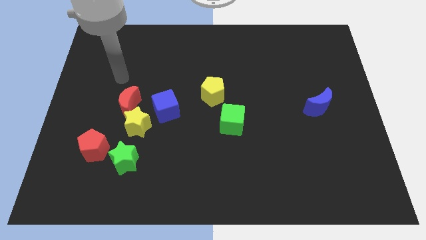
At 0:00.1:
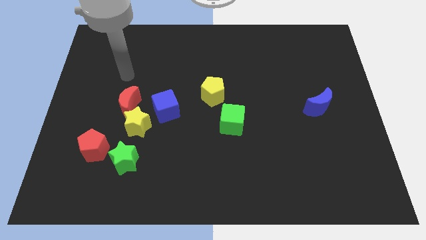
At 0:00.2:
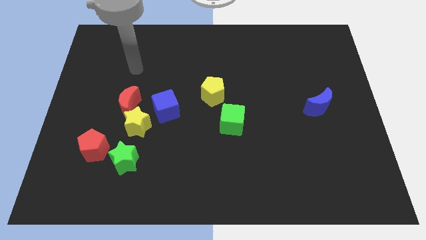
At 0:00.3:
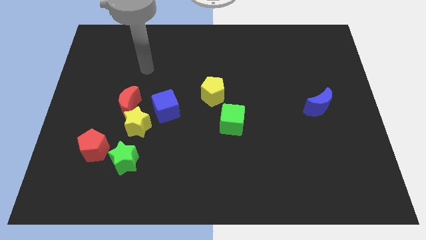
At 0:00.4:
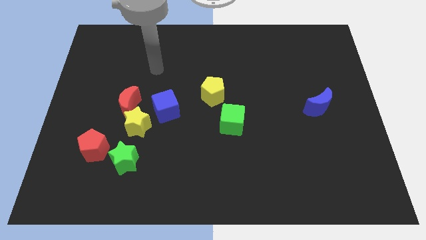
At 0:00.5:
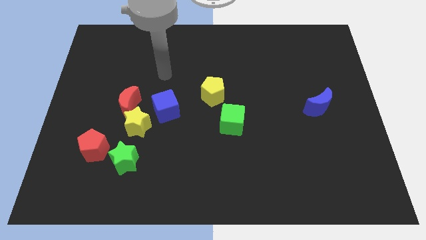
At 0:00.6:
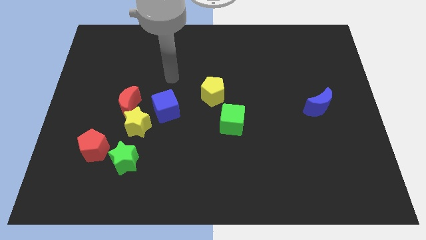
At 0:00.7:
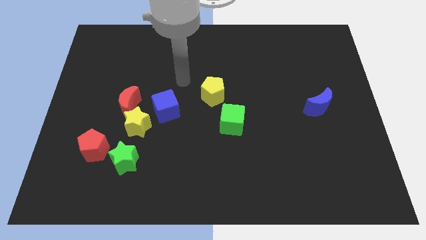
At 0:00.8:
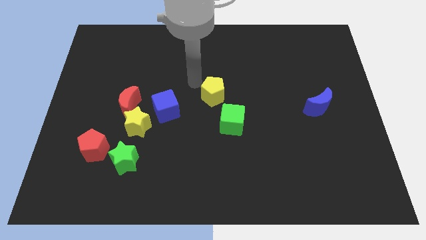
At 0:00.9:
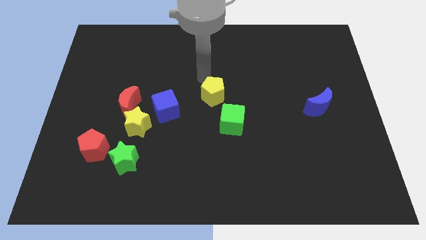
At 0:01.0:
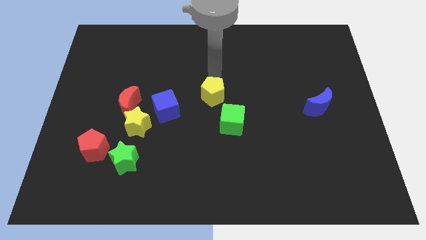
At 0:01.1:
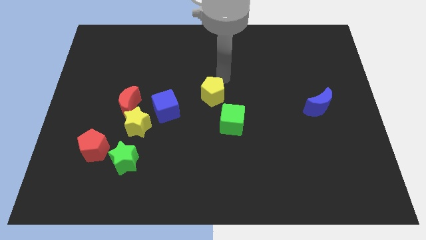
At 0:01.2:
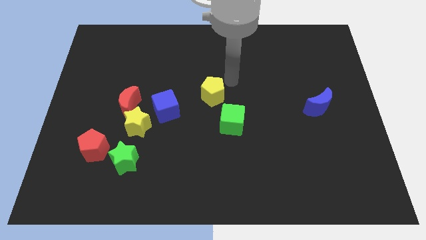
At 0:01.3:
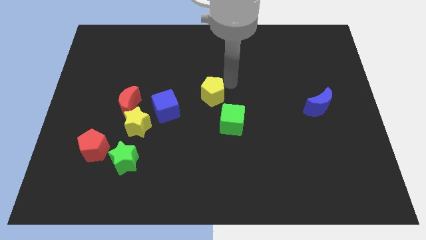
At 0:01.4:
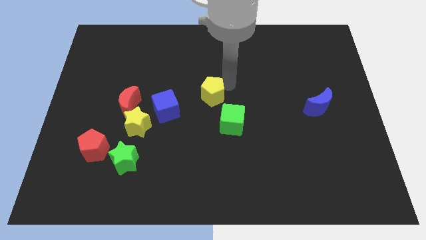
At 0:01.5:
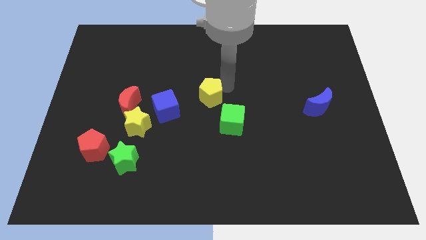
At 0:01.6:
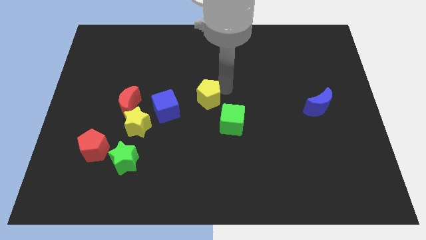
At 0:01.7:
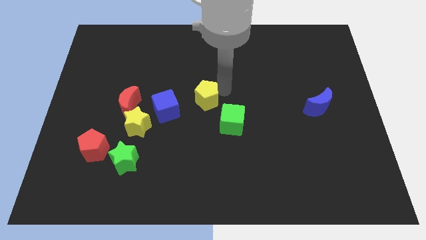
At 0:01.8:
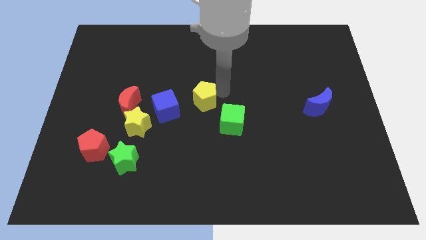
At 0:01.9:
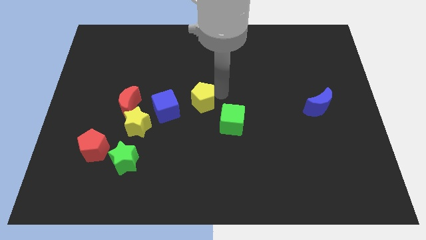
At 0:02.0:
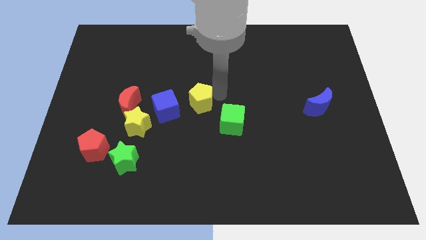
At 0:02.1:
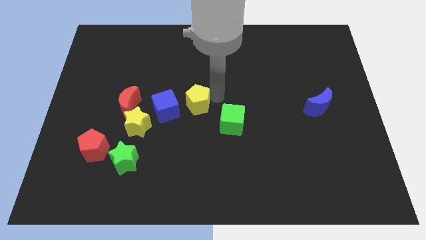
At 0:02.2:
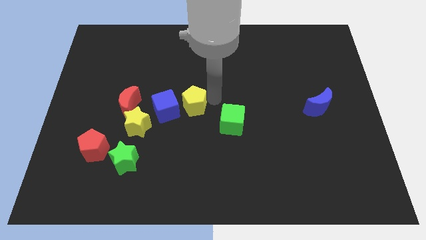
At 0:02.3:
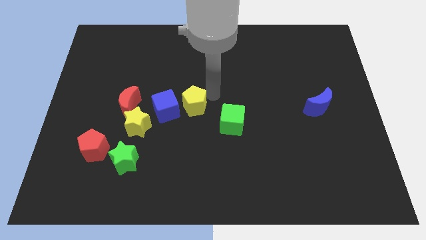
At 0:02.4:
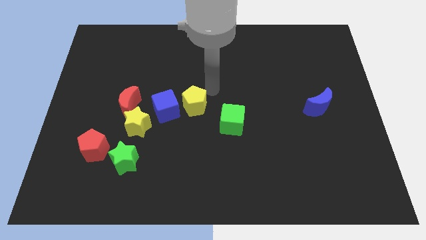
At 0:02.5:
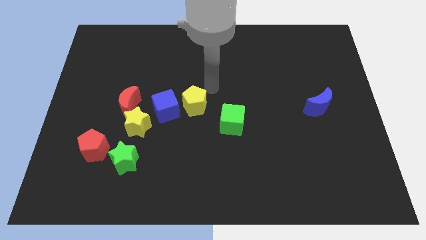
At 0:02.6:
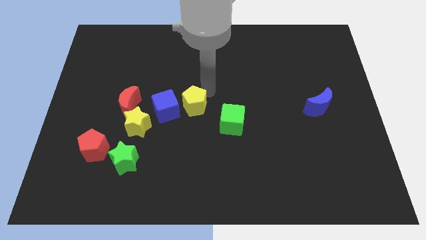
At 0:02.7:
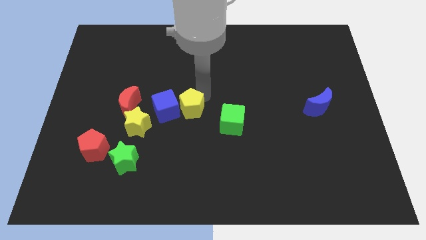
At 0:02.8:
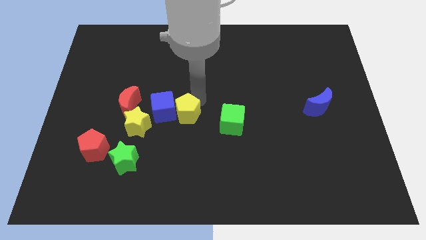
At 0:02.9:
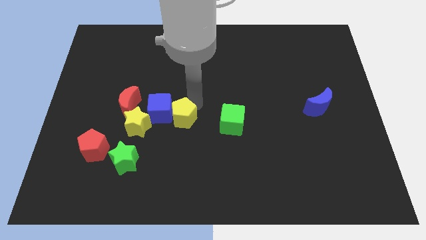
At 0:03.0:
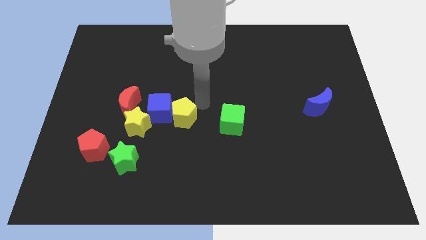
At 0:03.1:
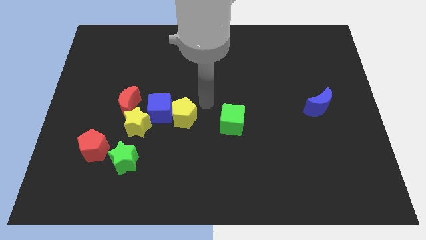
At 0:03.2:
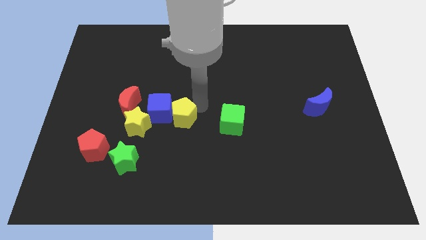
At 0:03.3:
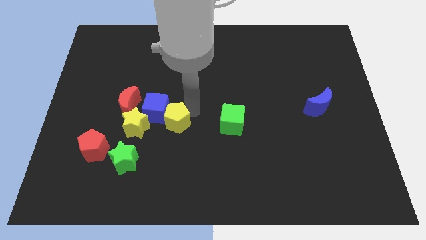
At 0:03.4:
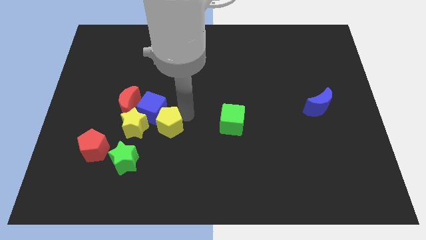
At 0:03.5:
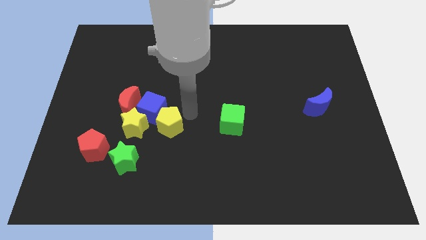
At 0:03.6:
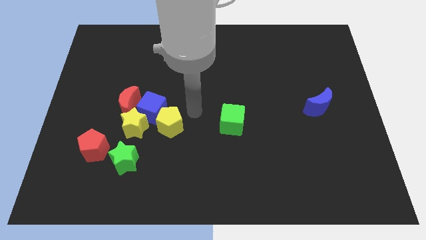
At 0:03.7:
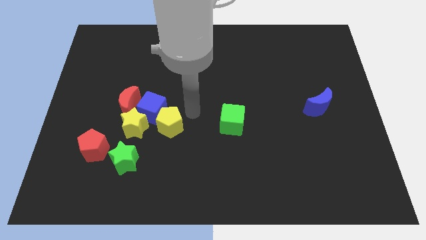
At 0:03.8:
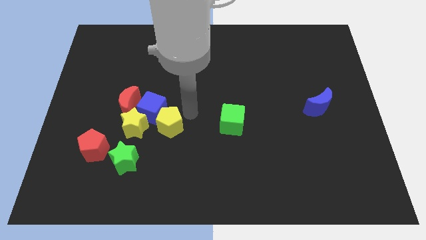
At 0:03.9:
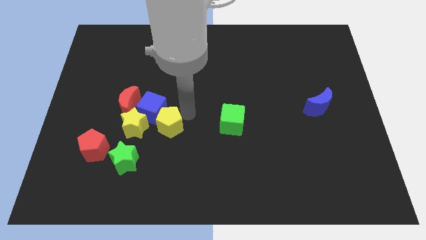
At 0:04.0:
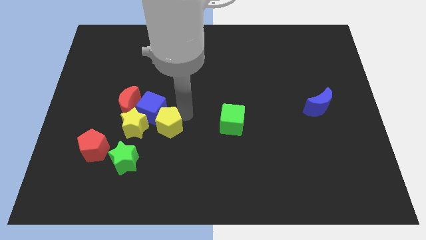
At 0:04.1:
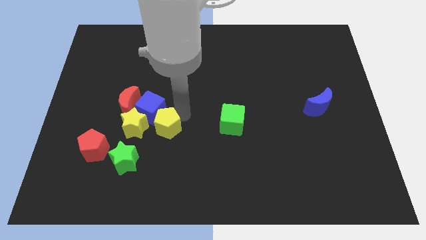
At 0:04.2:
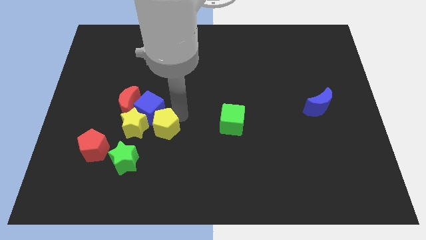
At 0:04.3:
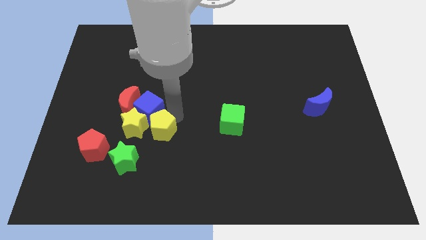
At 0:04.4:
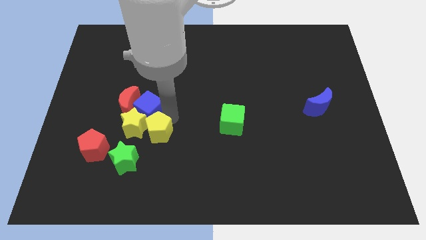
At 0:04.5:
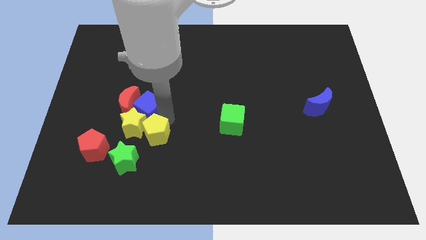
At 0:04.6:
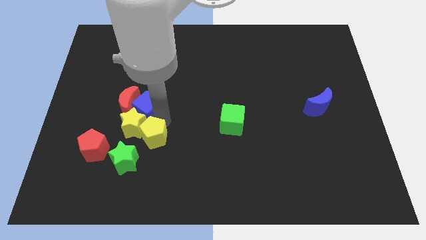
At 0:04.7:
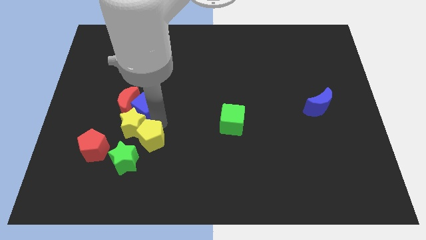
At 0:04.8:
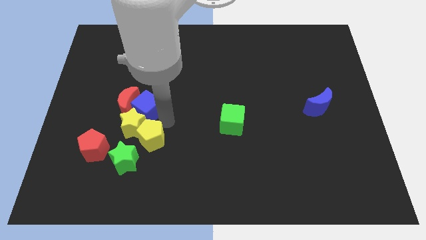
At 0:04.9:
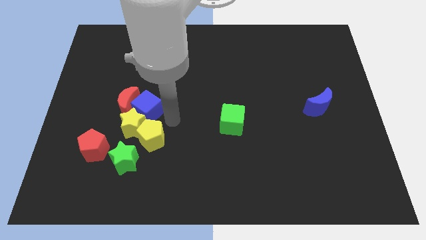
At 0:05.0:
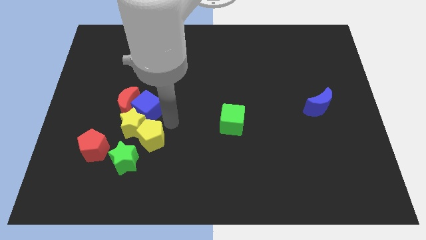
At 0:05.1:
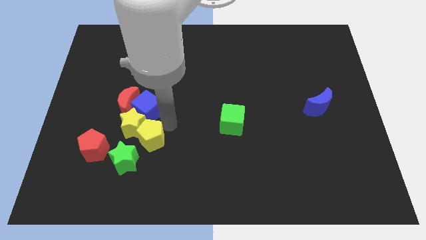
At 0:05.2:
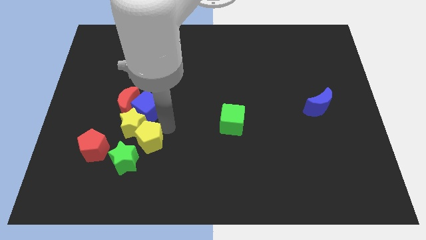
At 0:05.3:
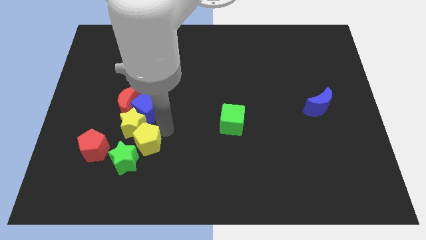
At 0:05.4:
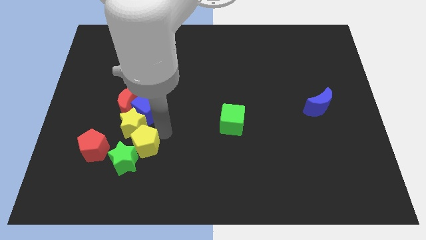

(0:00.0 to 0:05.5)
put the yellow pentagon close to the green star

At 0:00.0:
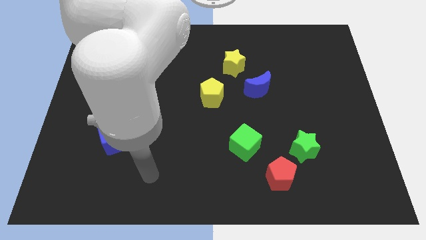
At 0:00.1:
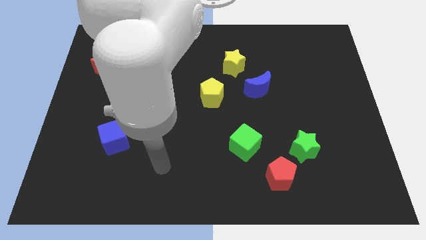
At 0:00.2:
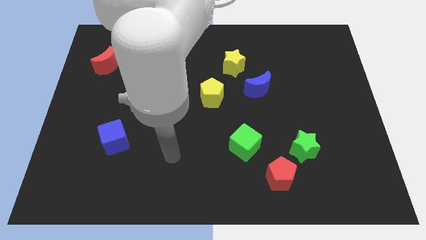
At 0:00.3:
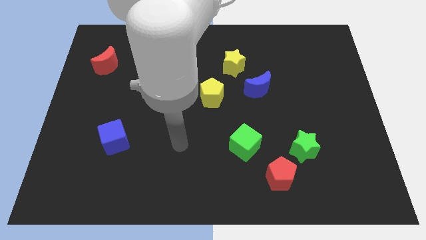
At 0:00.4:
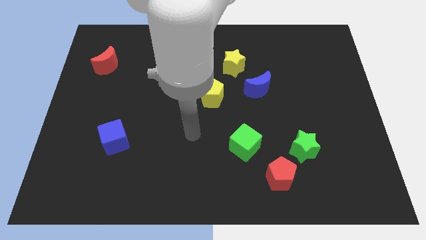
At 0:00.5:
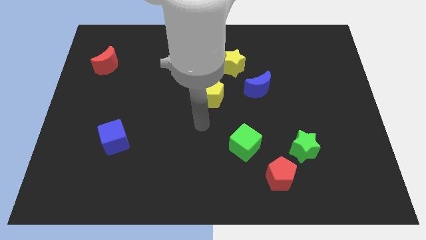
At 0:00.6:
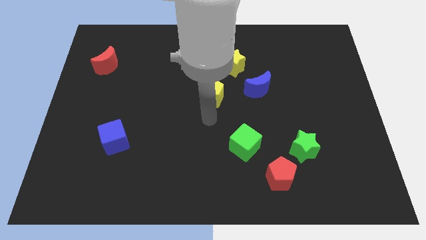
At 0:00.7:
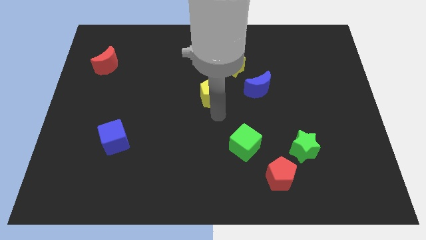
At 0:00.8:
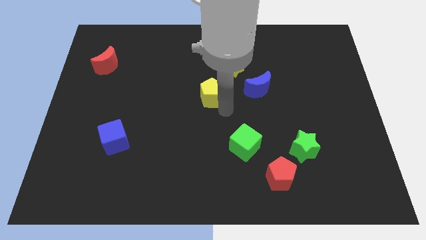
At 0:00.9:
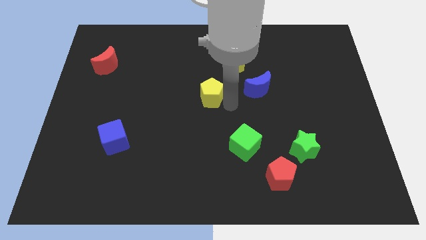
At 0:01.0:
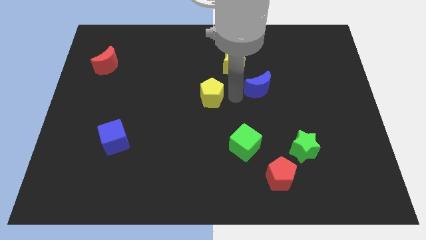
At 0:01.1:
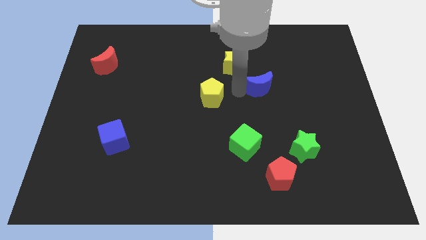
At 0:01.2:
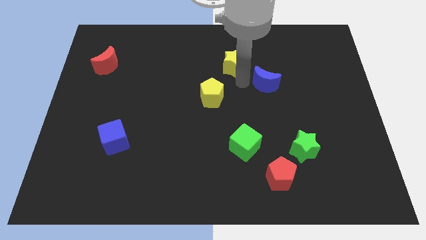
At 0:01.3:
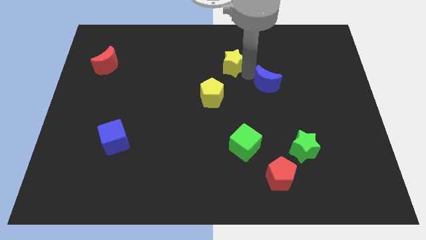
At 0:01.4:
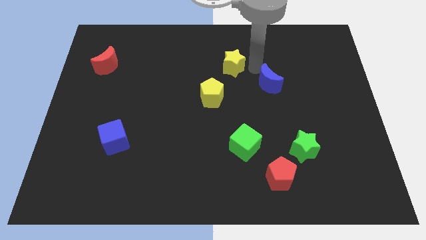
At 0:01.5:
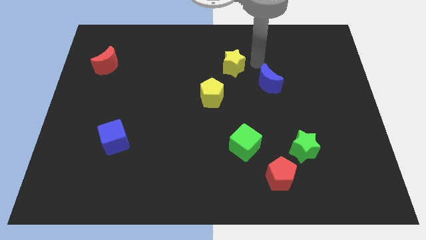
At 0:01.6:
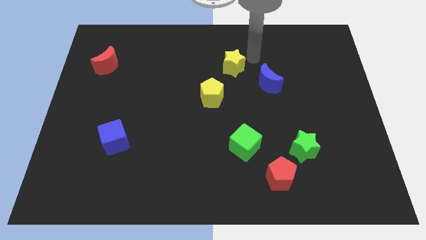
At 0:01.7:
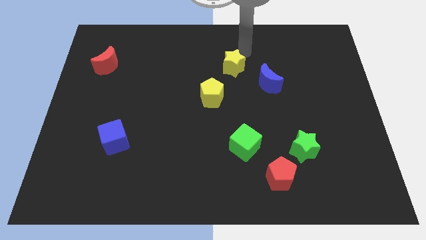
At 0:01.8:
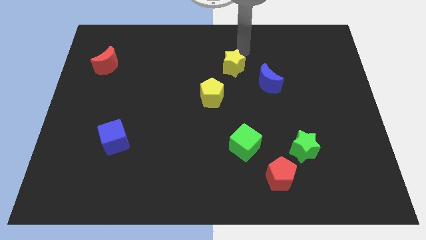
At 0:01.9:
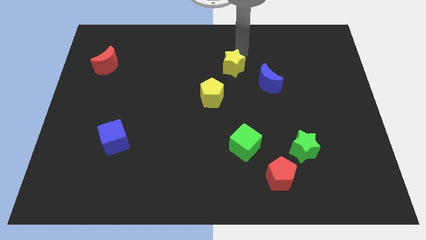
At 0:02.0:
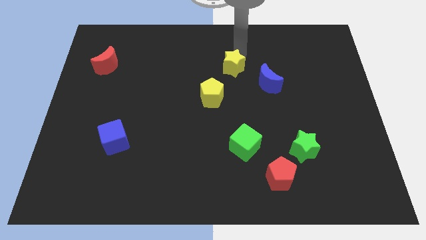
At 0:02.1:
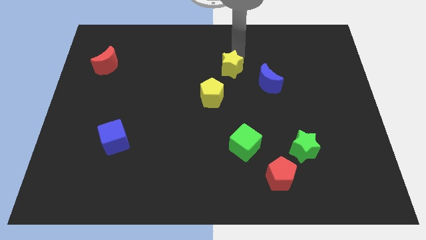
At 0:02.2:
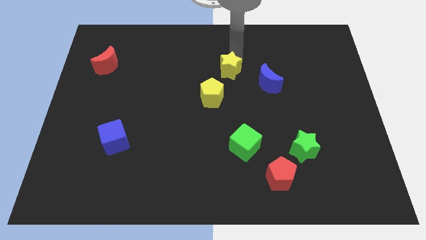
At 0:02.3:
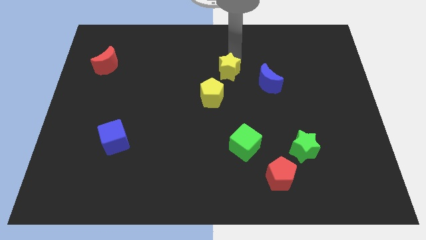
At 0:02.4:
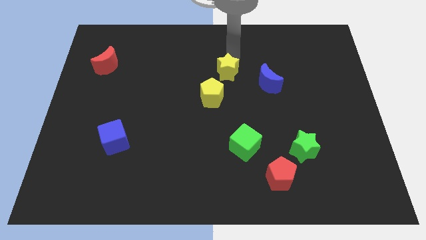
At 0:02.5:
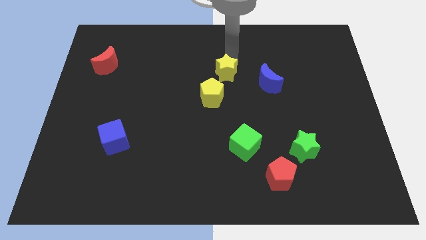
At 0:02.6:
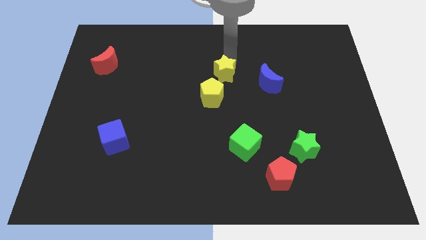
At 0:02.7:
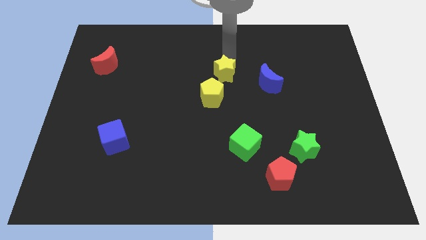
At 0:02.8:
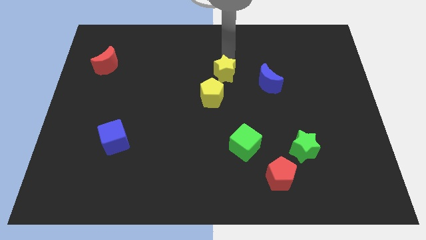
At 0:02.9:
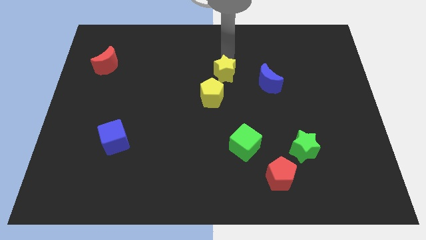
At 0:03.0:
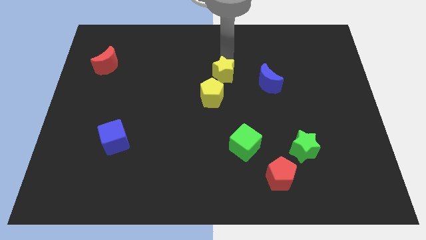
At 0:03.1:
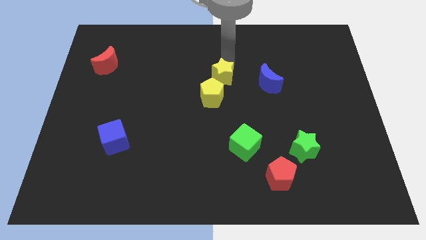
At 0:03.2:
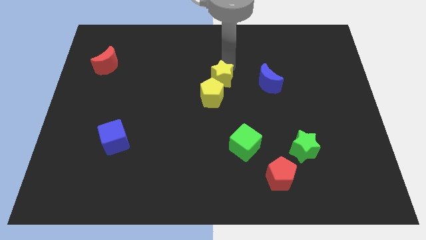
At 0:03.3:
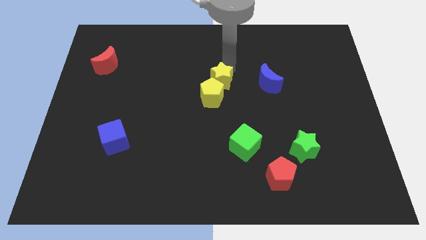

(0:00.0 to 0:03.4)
move the yellow star next to the yellow pentagon
